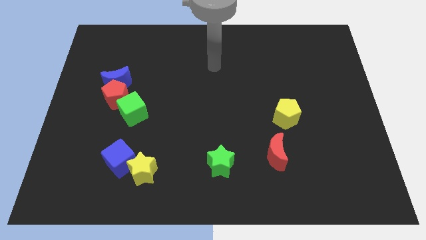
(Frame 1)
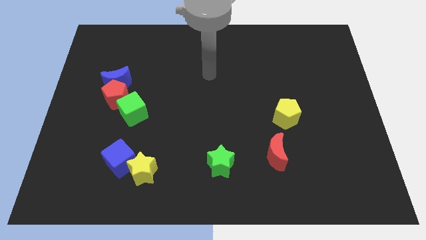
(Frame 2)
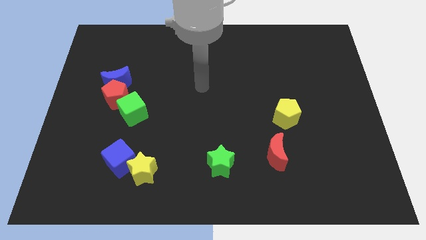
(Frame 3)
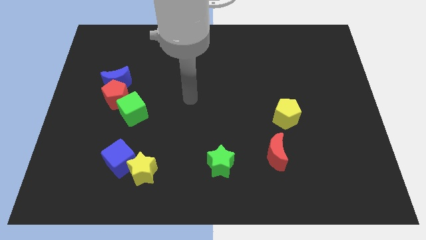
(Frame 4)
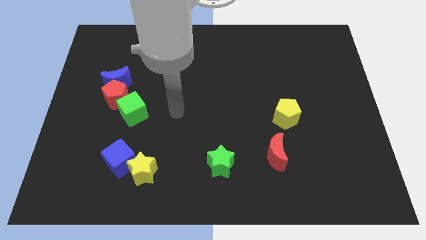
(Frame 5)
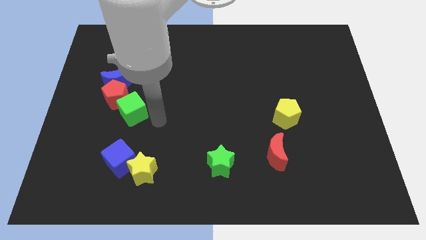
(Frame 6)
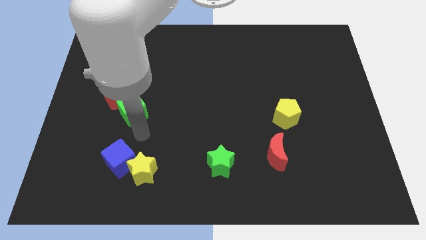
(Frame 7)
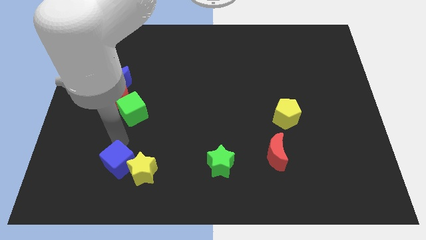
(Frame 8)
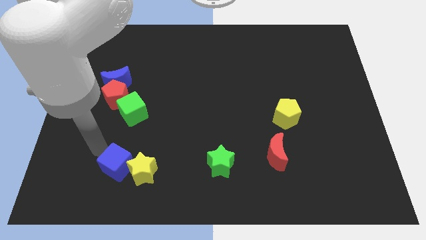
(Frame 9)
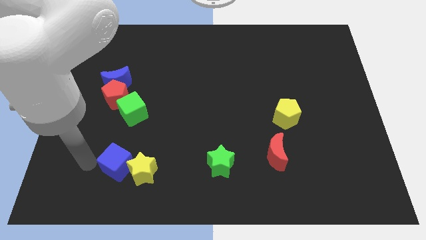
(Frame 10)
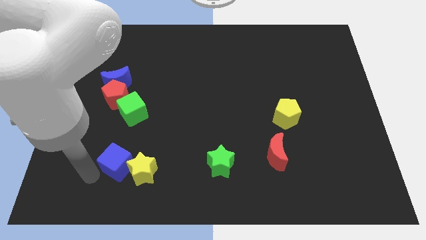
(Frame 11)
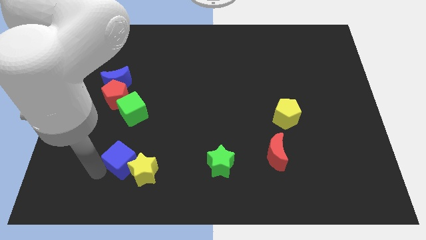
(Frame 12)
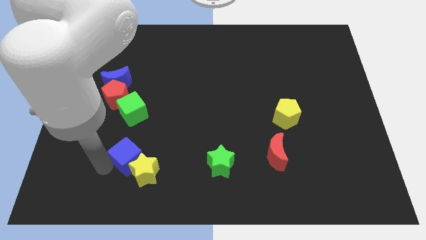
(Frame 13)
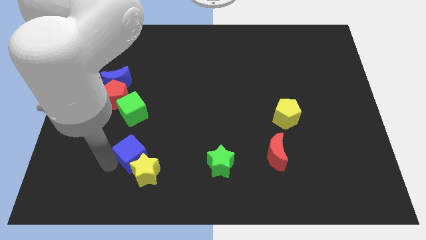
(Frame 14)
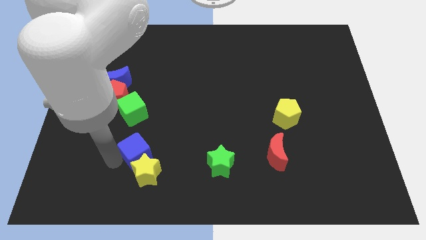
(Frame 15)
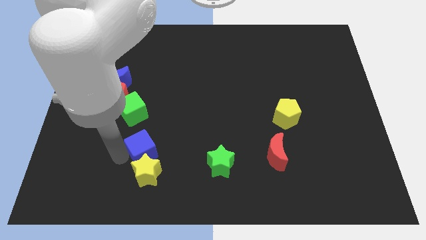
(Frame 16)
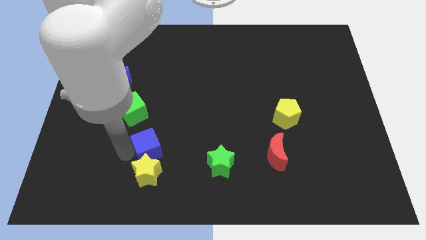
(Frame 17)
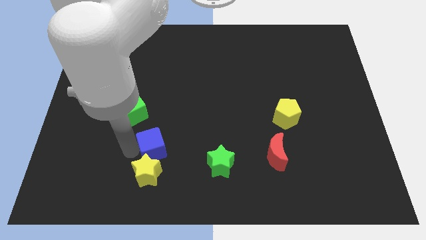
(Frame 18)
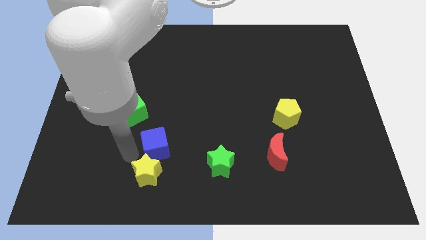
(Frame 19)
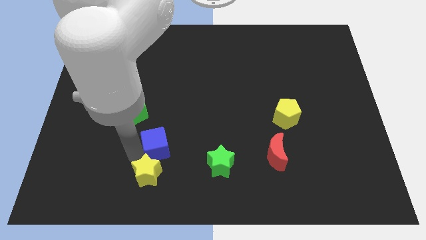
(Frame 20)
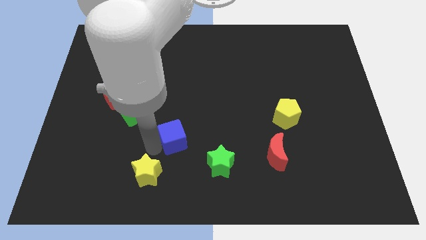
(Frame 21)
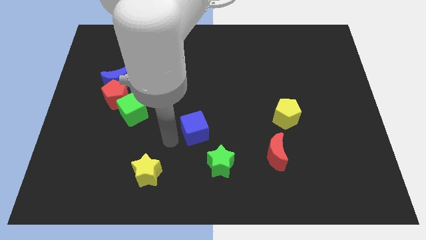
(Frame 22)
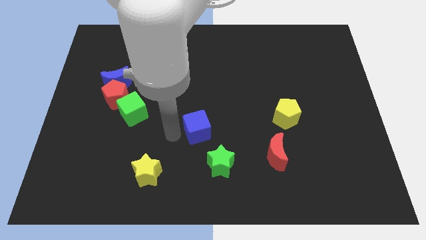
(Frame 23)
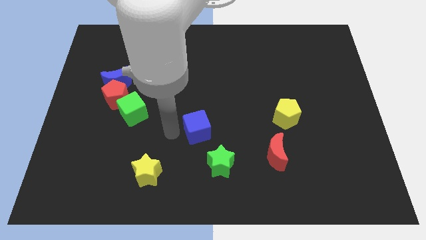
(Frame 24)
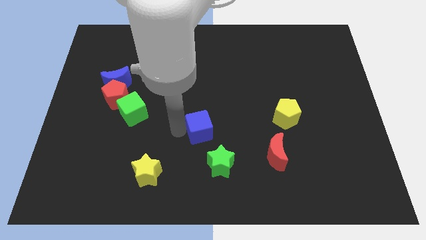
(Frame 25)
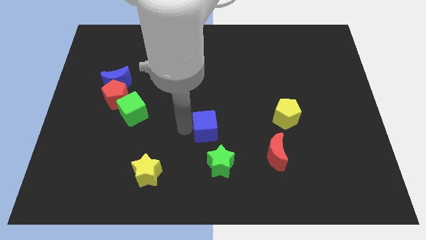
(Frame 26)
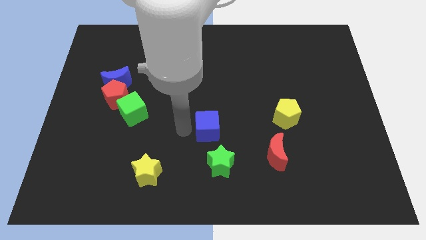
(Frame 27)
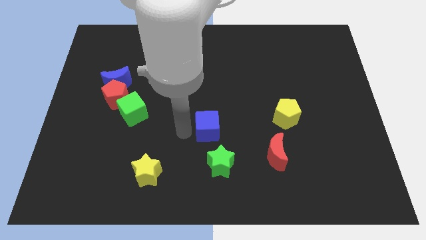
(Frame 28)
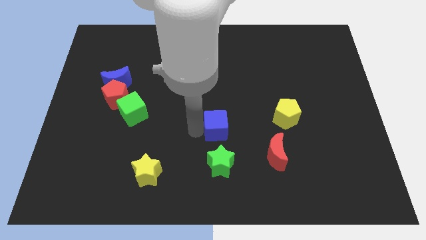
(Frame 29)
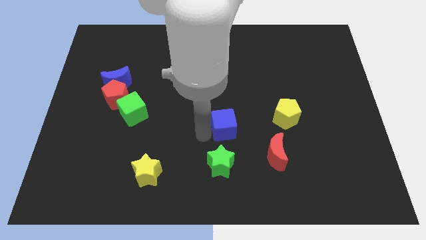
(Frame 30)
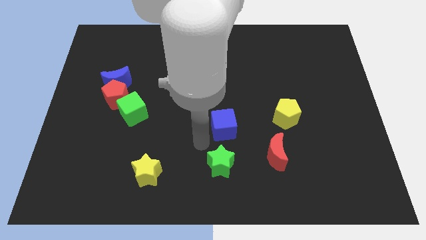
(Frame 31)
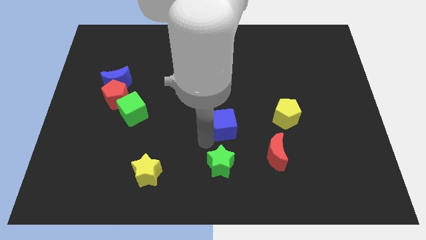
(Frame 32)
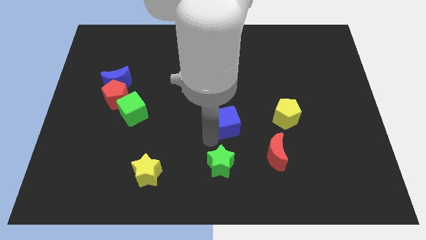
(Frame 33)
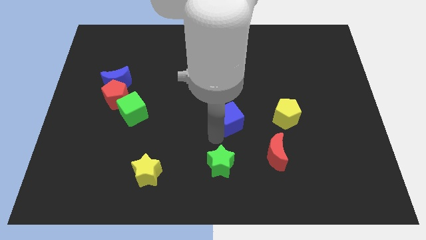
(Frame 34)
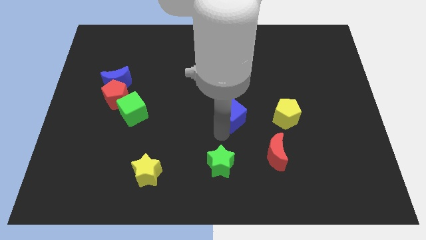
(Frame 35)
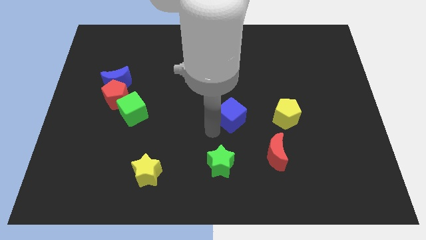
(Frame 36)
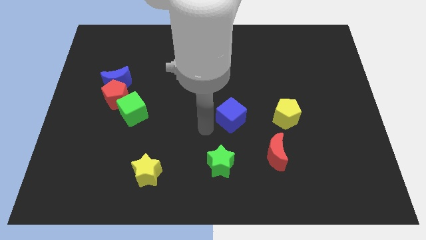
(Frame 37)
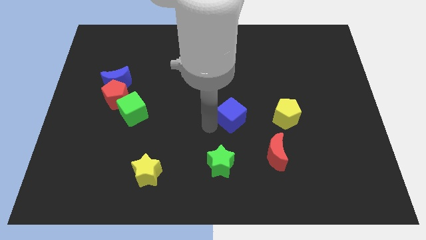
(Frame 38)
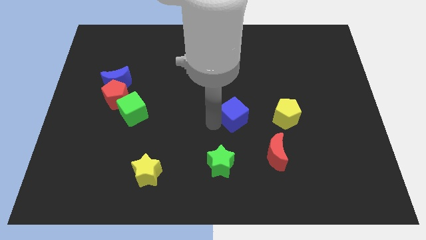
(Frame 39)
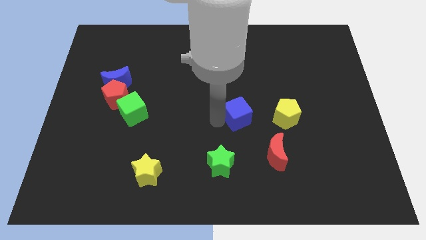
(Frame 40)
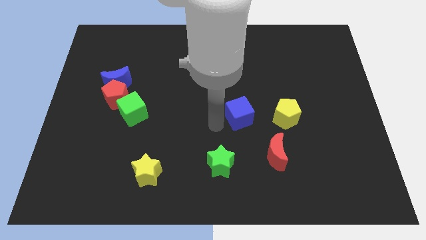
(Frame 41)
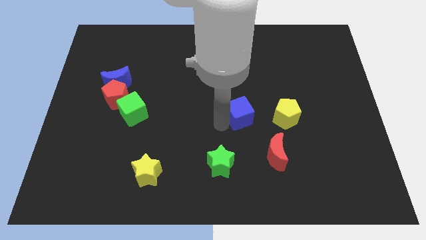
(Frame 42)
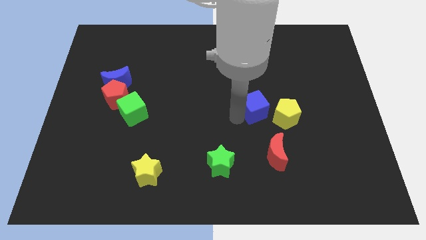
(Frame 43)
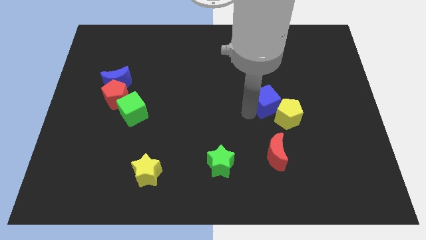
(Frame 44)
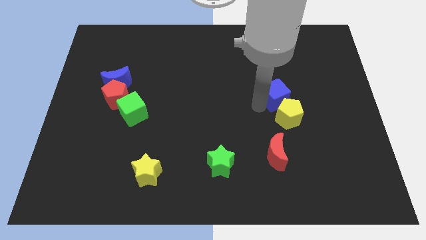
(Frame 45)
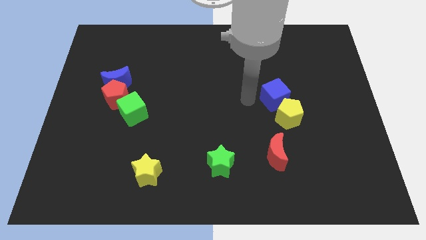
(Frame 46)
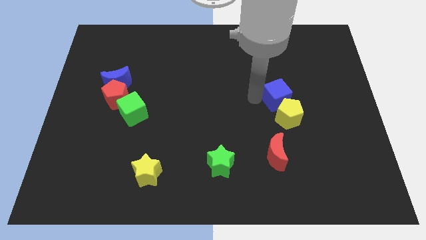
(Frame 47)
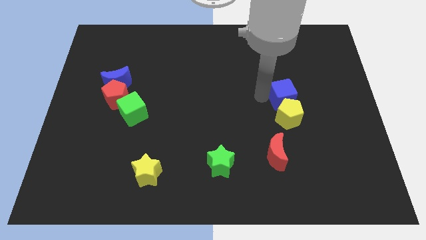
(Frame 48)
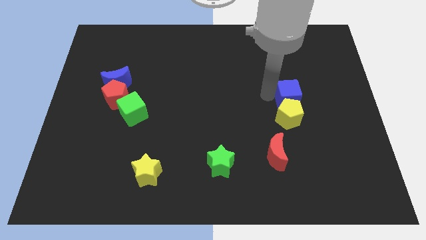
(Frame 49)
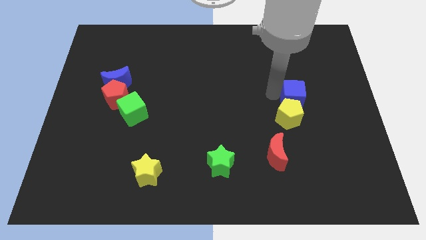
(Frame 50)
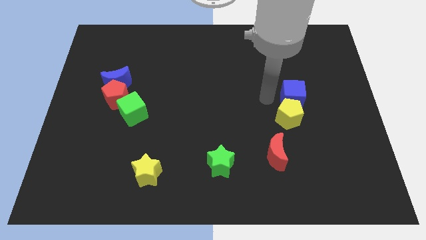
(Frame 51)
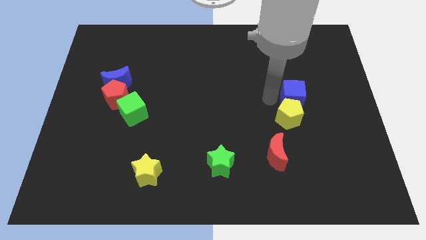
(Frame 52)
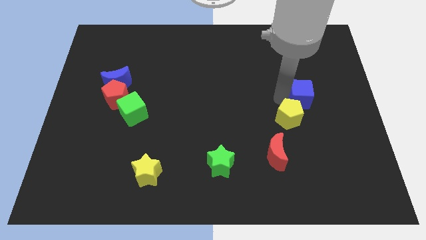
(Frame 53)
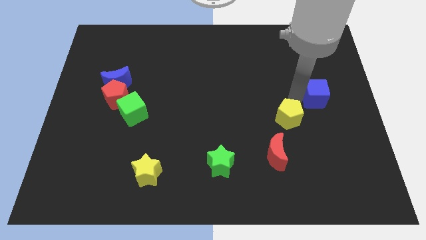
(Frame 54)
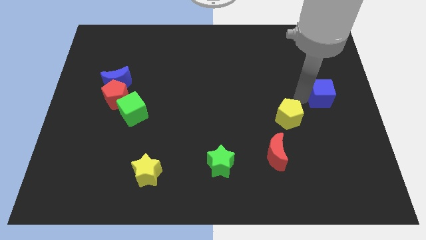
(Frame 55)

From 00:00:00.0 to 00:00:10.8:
slide the blue cube to the right side

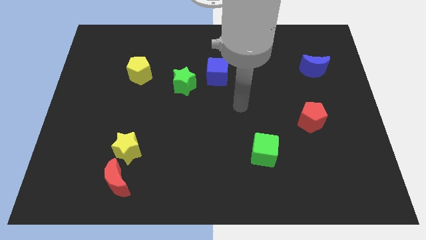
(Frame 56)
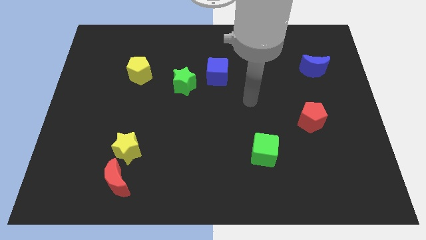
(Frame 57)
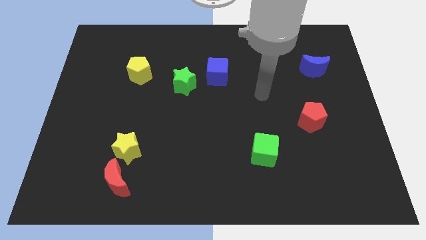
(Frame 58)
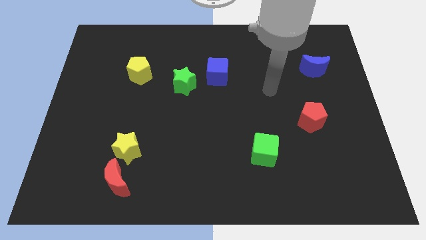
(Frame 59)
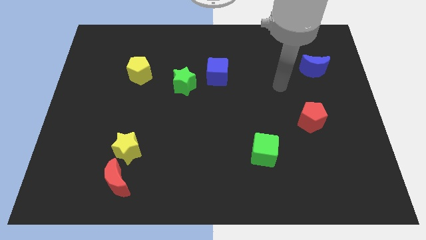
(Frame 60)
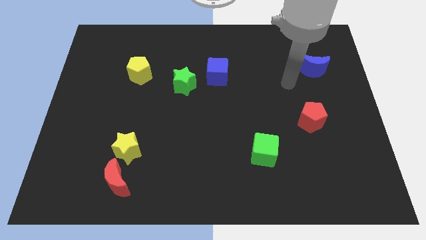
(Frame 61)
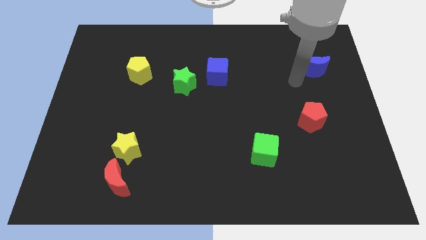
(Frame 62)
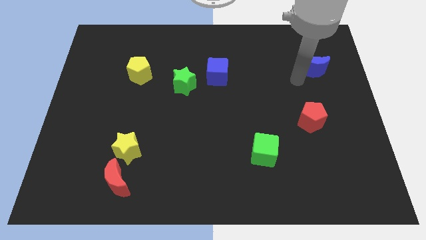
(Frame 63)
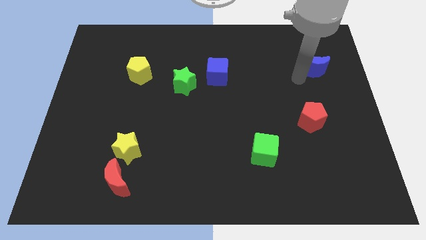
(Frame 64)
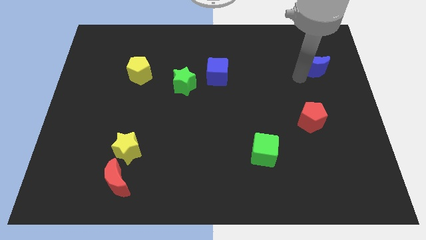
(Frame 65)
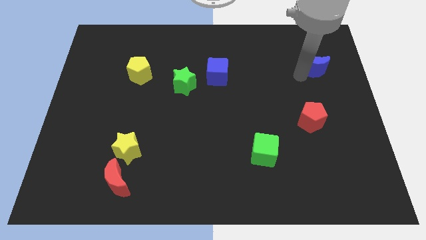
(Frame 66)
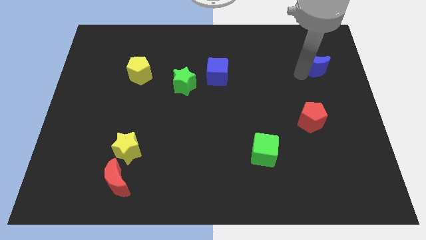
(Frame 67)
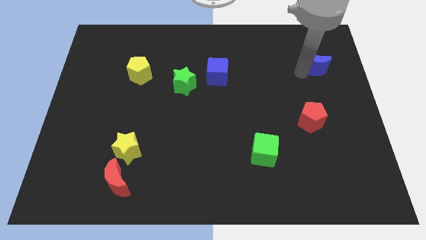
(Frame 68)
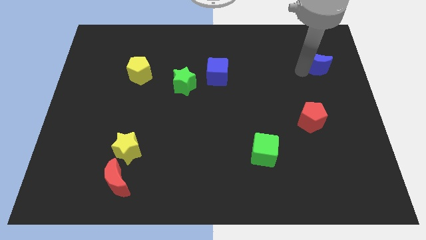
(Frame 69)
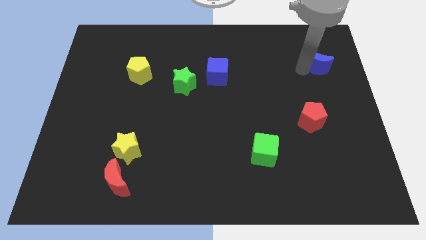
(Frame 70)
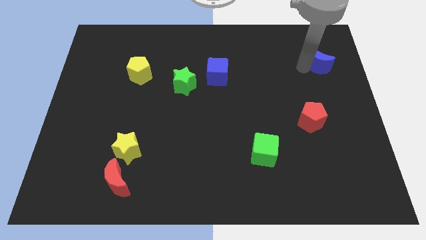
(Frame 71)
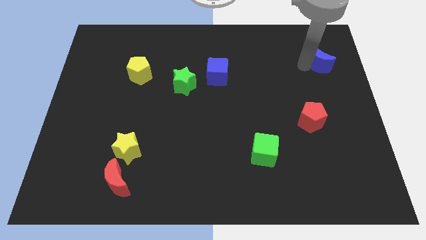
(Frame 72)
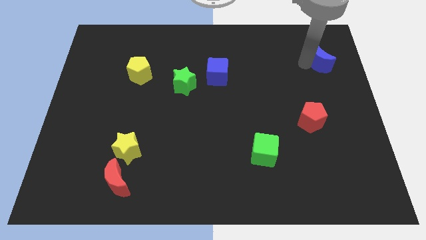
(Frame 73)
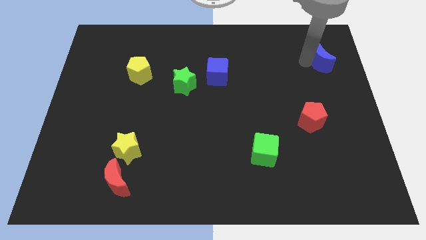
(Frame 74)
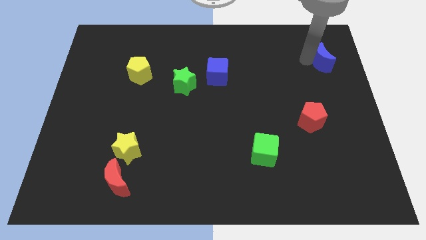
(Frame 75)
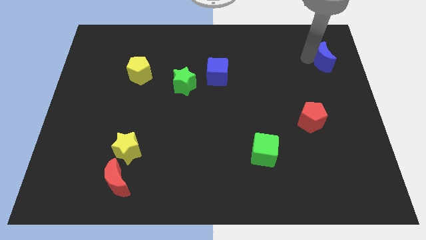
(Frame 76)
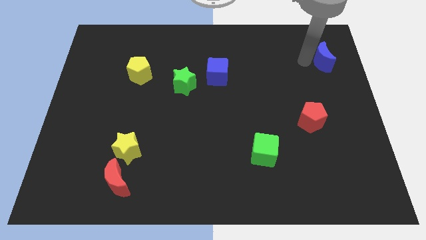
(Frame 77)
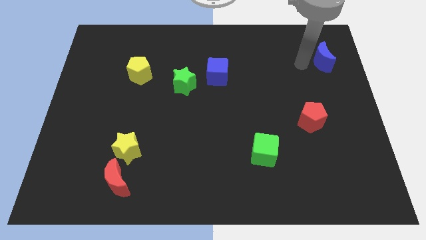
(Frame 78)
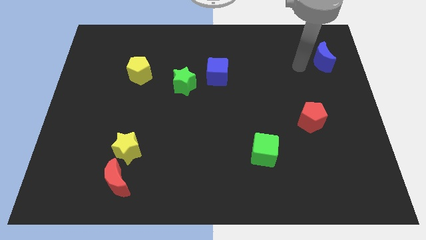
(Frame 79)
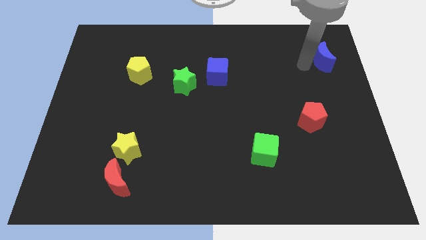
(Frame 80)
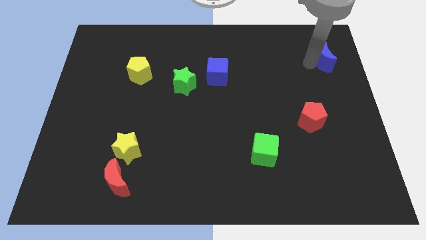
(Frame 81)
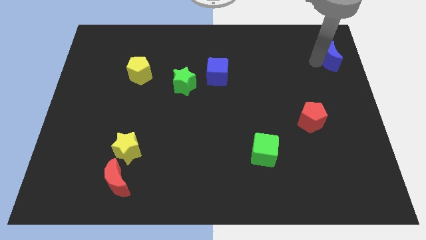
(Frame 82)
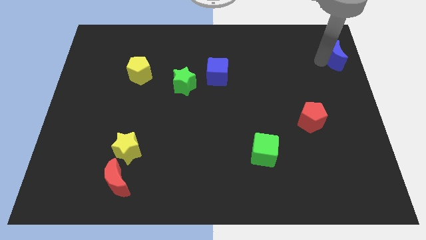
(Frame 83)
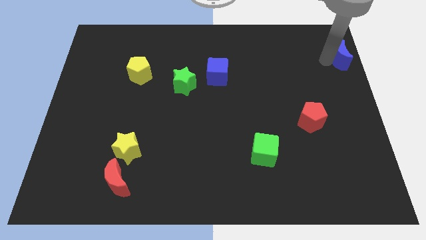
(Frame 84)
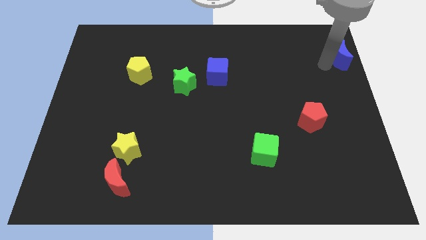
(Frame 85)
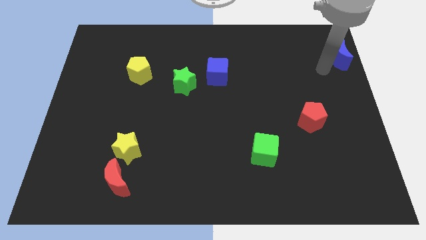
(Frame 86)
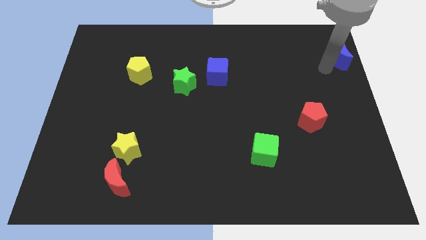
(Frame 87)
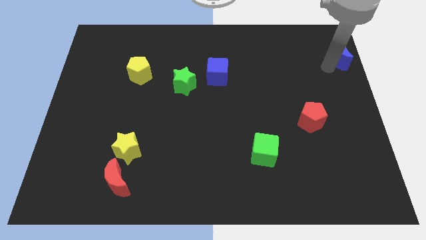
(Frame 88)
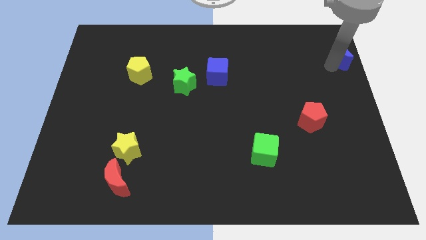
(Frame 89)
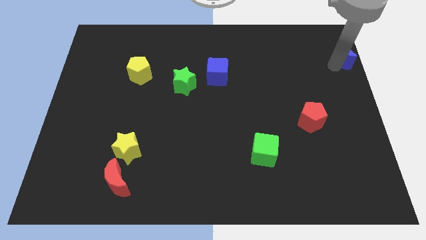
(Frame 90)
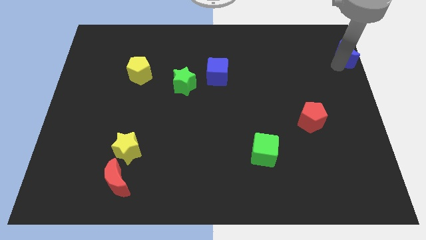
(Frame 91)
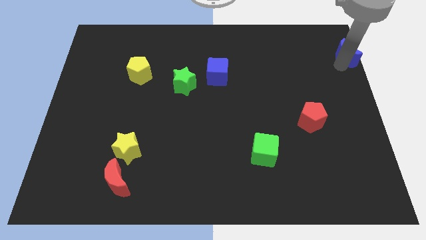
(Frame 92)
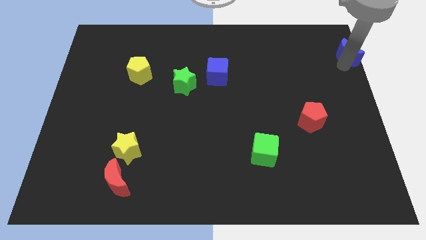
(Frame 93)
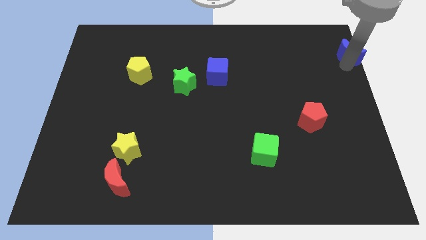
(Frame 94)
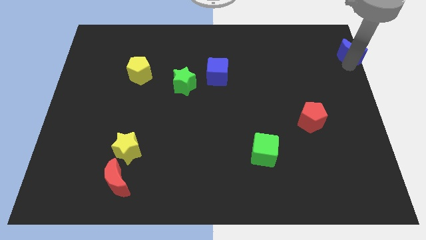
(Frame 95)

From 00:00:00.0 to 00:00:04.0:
put the blue moon to the top right of the board
